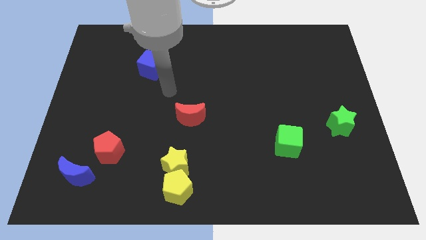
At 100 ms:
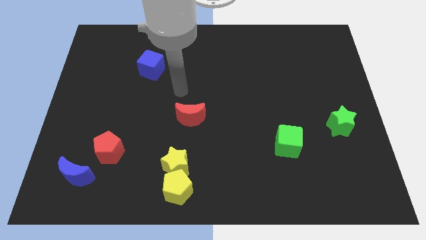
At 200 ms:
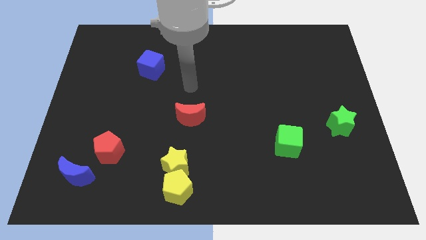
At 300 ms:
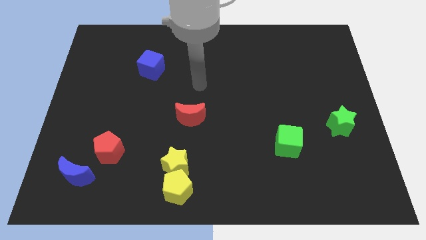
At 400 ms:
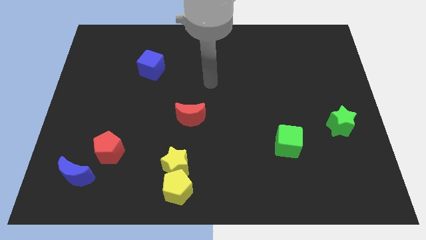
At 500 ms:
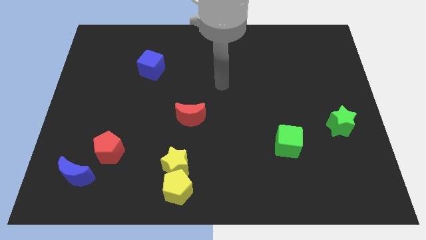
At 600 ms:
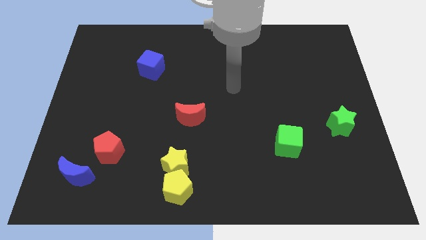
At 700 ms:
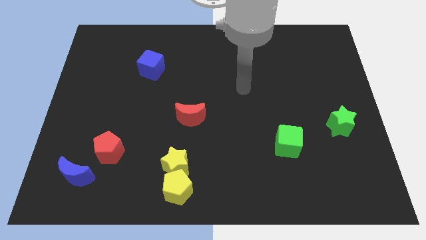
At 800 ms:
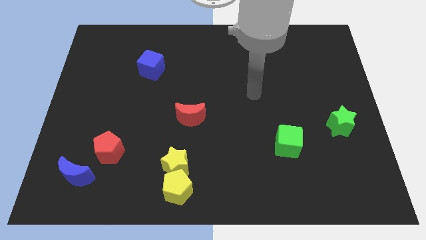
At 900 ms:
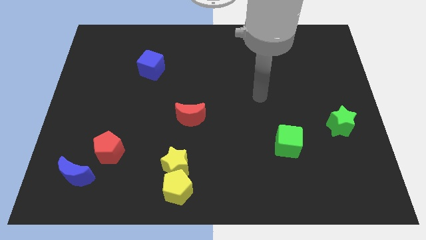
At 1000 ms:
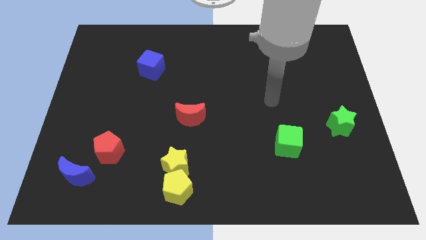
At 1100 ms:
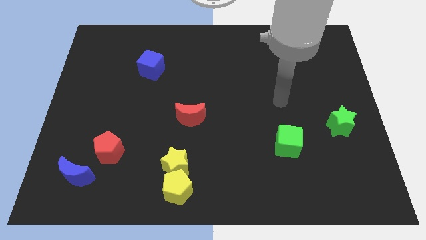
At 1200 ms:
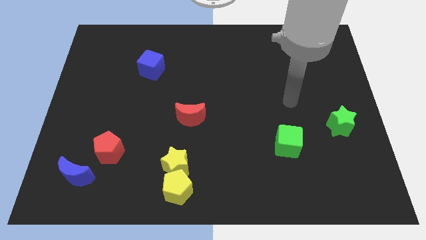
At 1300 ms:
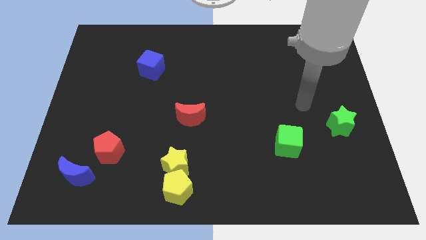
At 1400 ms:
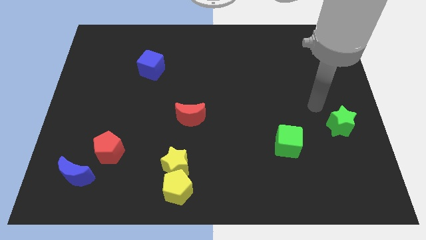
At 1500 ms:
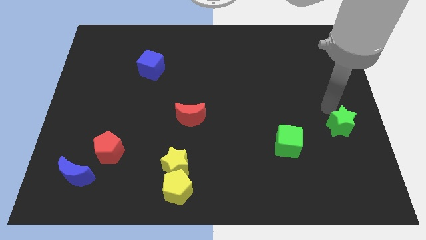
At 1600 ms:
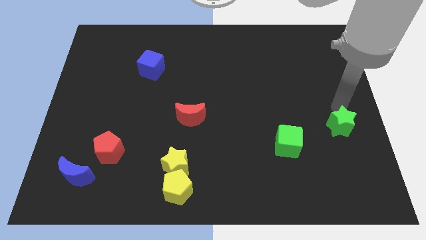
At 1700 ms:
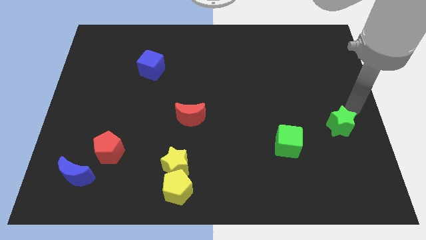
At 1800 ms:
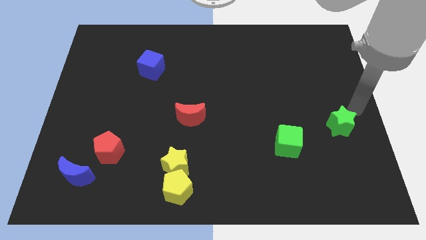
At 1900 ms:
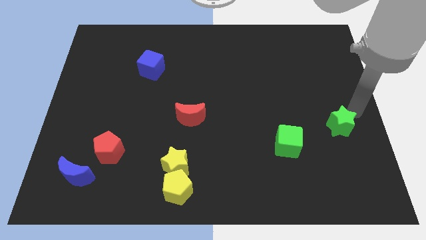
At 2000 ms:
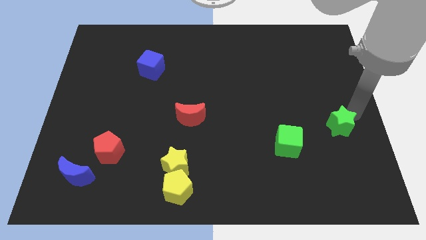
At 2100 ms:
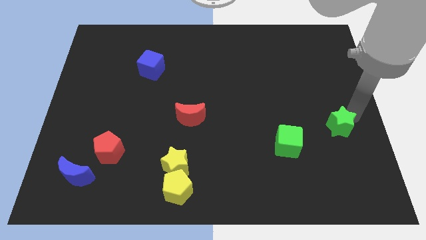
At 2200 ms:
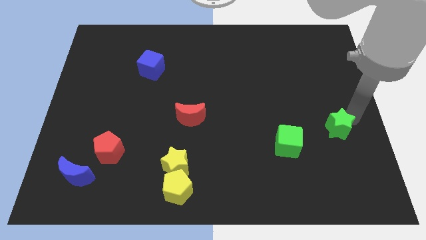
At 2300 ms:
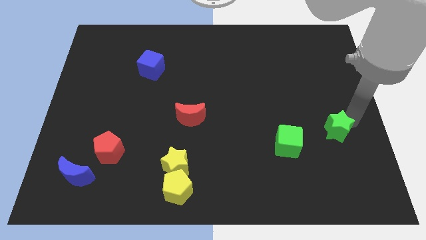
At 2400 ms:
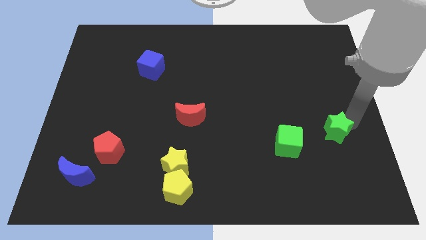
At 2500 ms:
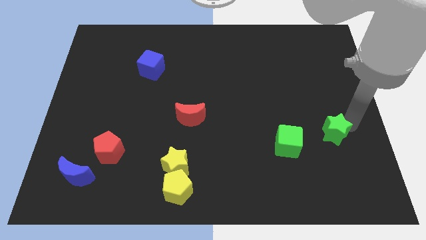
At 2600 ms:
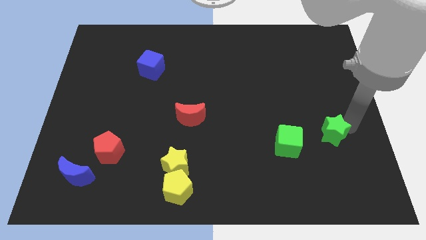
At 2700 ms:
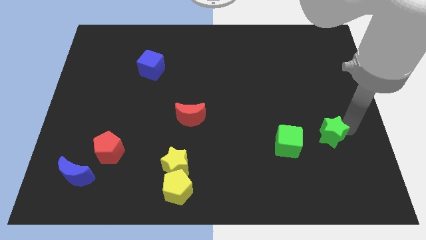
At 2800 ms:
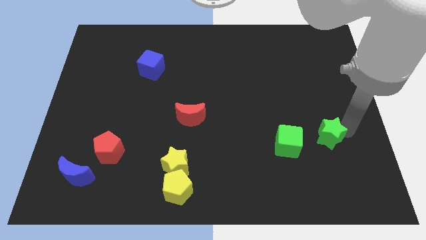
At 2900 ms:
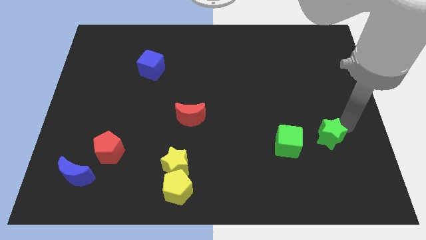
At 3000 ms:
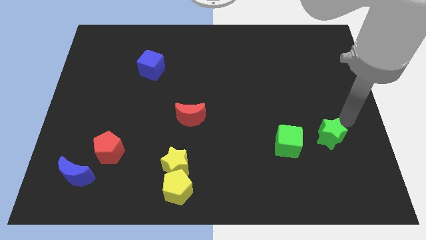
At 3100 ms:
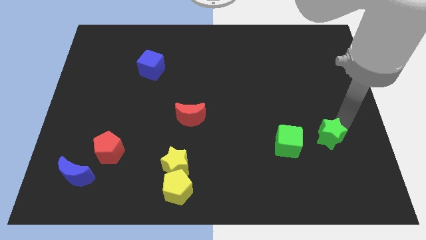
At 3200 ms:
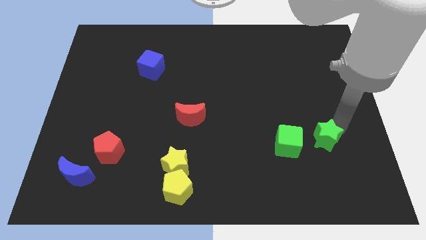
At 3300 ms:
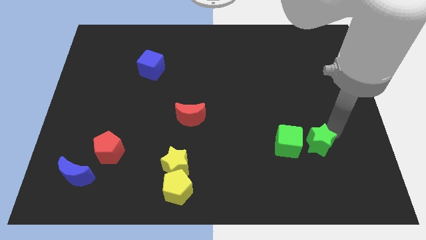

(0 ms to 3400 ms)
slightly move the green star down and then left

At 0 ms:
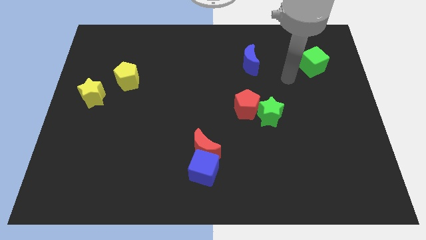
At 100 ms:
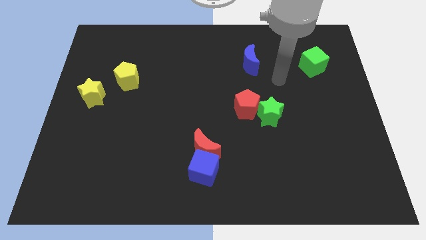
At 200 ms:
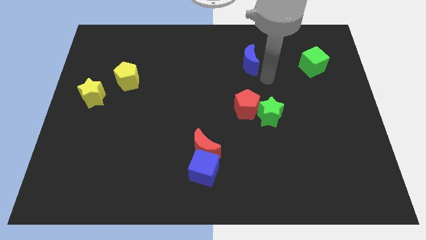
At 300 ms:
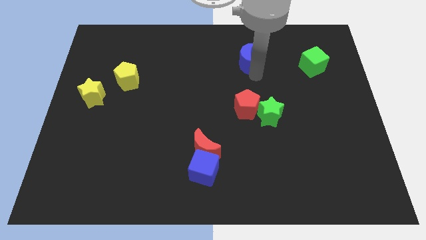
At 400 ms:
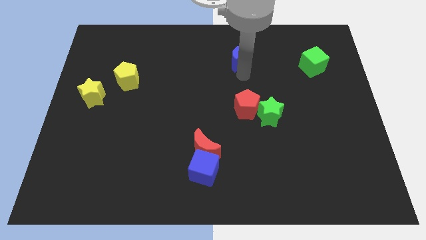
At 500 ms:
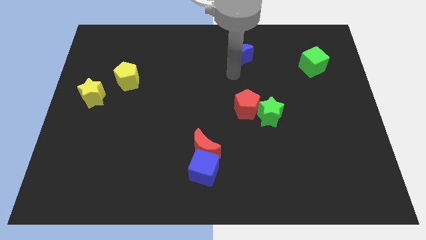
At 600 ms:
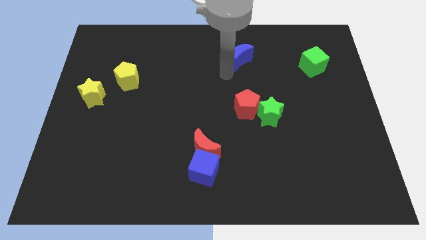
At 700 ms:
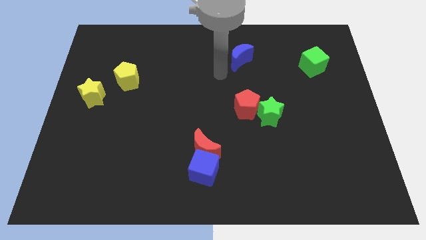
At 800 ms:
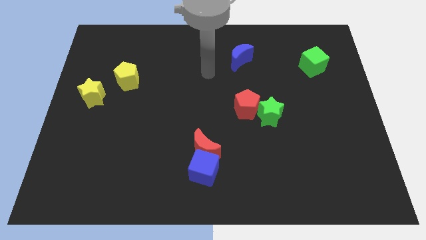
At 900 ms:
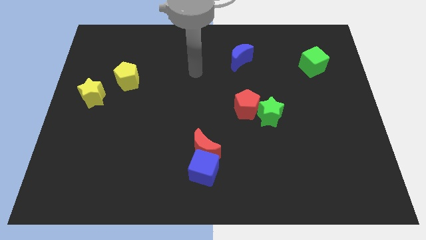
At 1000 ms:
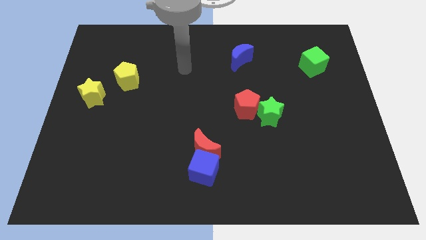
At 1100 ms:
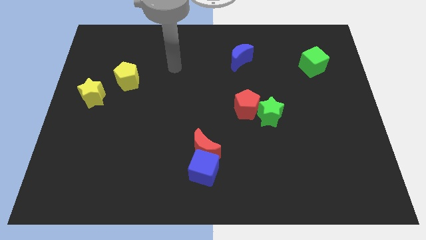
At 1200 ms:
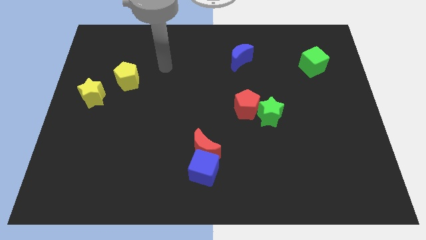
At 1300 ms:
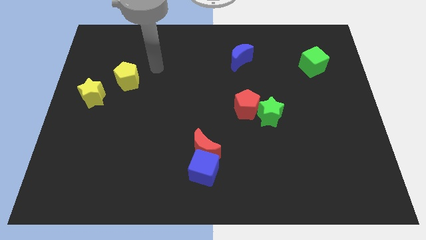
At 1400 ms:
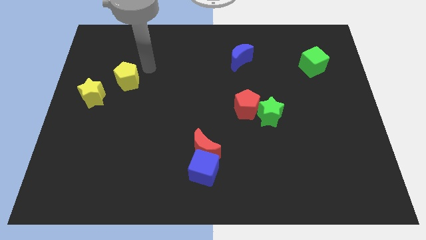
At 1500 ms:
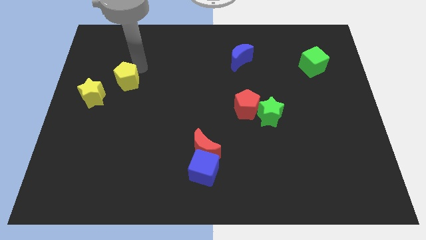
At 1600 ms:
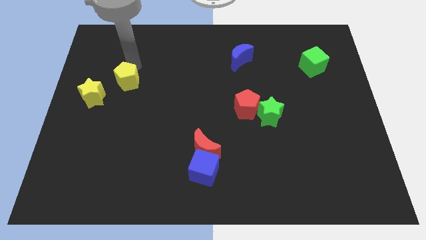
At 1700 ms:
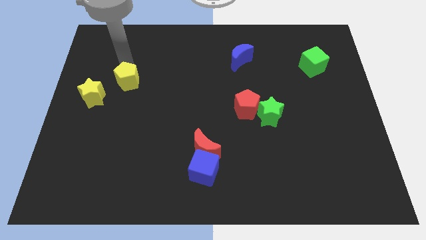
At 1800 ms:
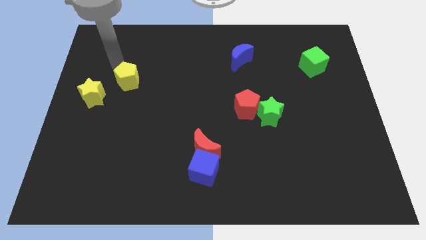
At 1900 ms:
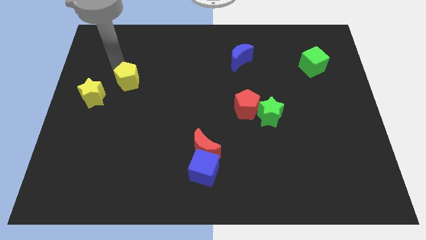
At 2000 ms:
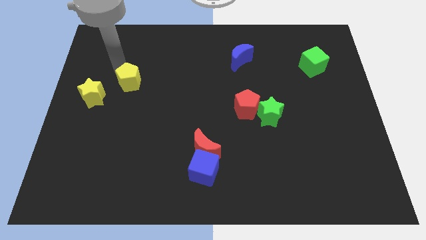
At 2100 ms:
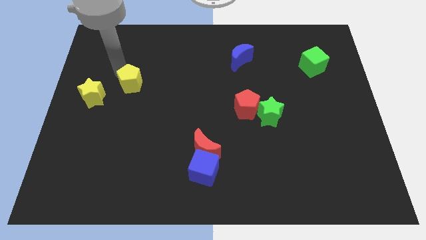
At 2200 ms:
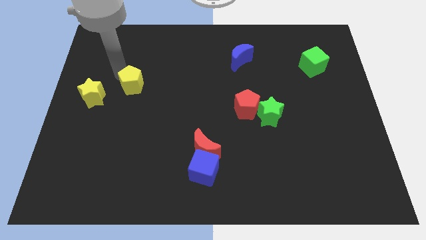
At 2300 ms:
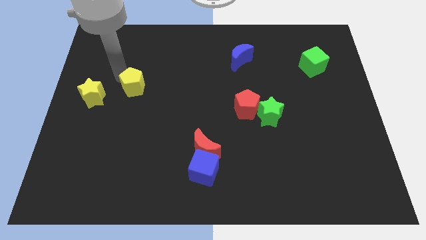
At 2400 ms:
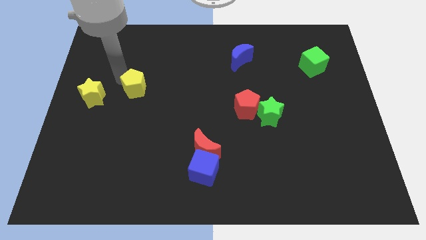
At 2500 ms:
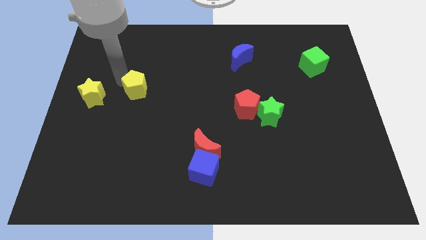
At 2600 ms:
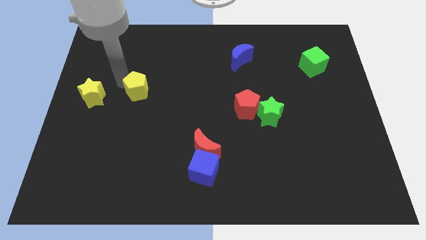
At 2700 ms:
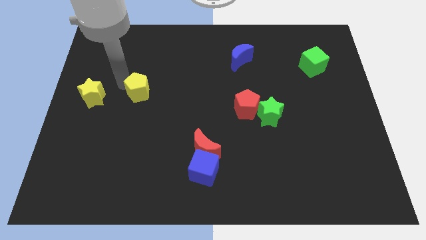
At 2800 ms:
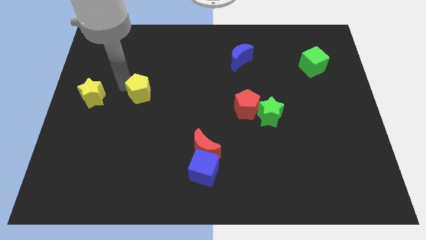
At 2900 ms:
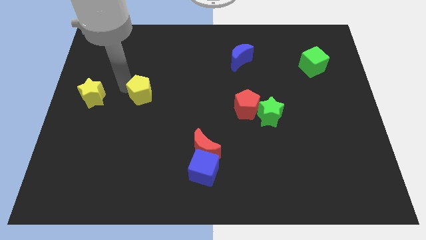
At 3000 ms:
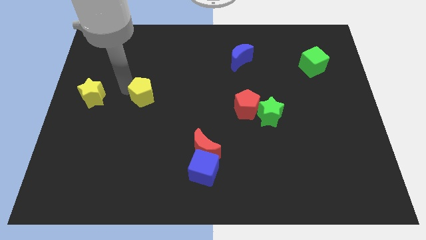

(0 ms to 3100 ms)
push the yellow pentagon downwards and then right a little bit

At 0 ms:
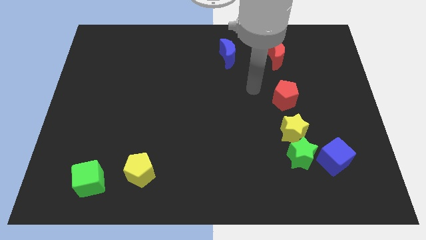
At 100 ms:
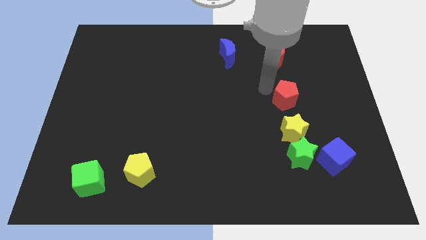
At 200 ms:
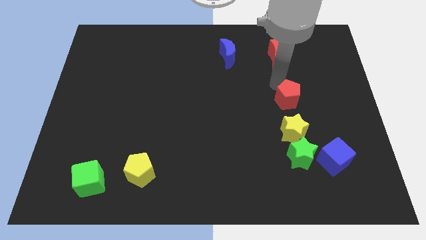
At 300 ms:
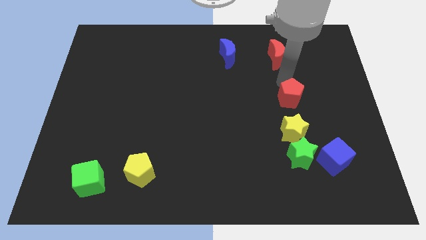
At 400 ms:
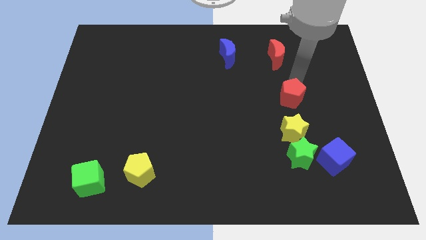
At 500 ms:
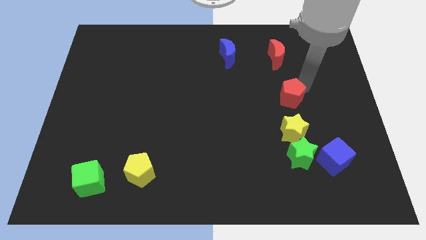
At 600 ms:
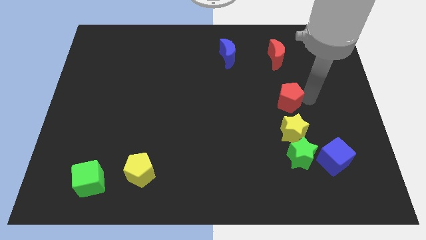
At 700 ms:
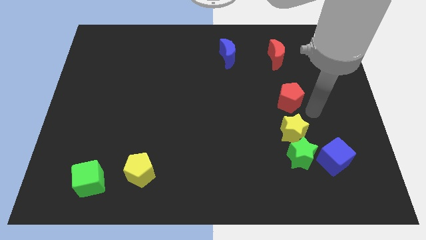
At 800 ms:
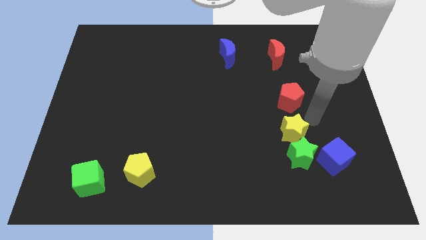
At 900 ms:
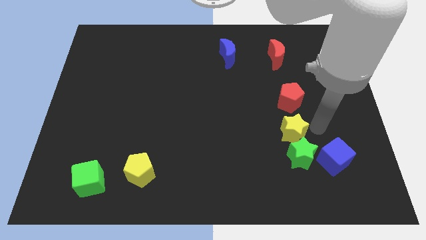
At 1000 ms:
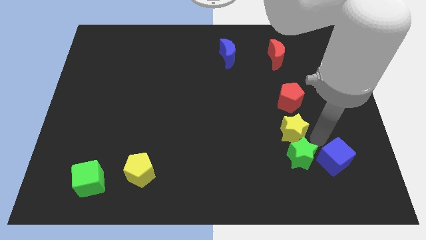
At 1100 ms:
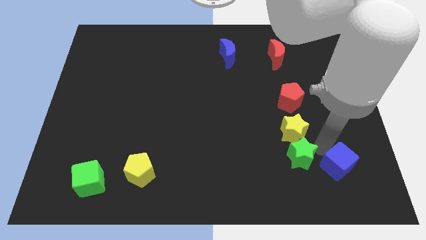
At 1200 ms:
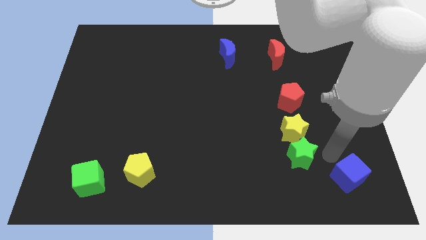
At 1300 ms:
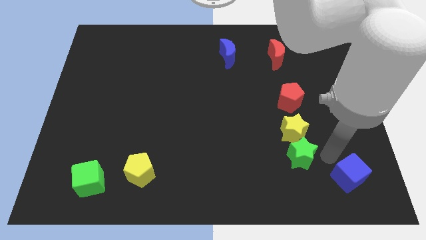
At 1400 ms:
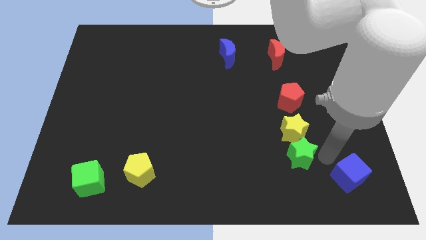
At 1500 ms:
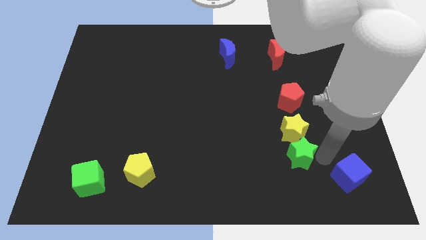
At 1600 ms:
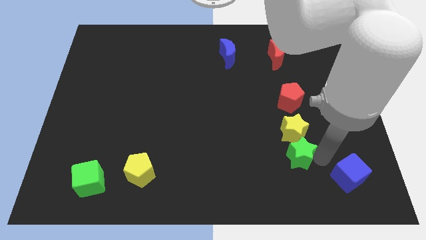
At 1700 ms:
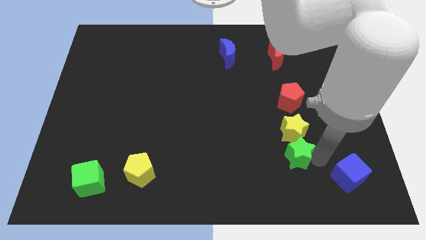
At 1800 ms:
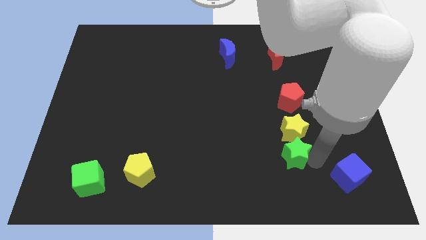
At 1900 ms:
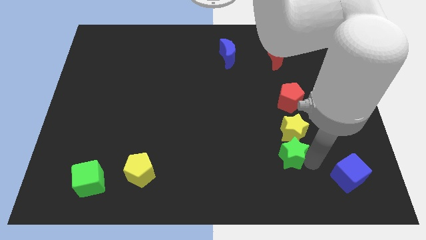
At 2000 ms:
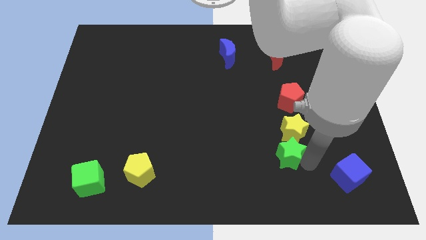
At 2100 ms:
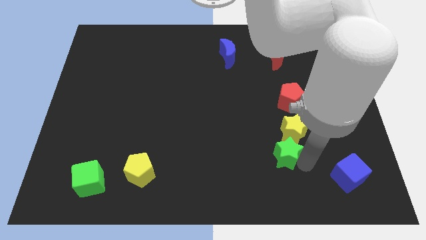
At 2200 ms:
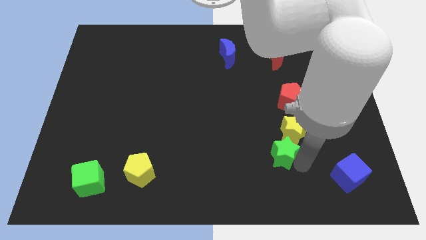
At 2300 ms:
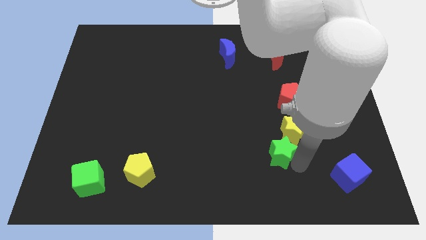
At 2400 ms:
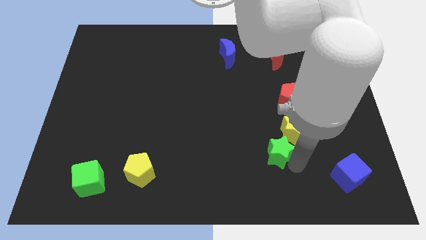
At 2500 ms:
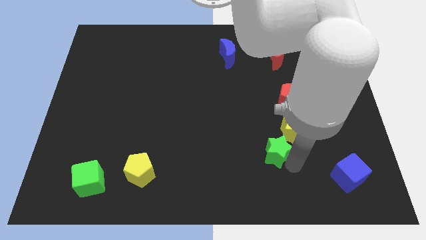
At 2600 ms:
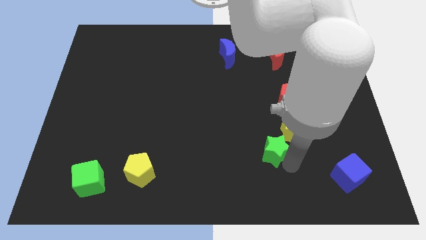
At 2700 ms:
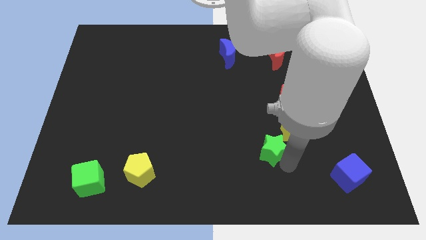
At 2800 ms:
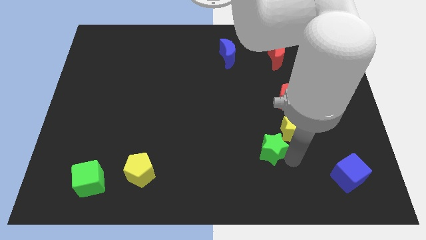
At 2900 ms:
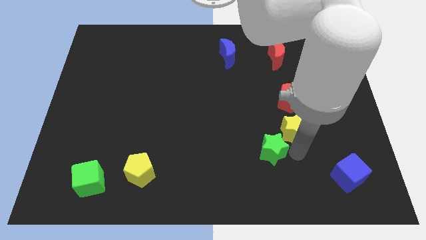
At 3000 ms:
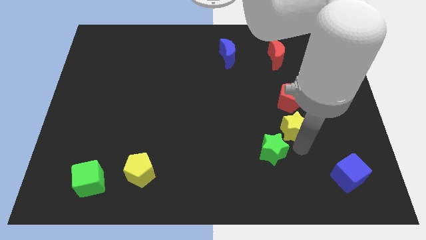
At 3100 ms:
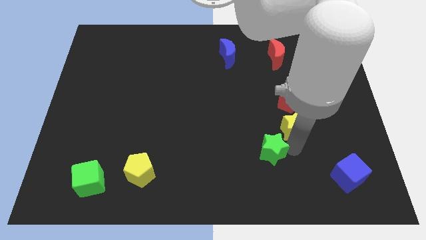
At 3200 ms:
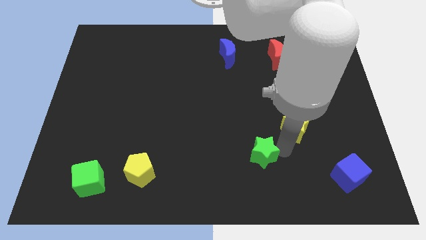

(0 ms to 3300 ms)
move the green star somewhat left
